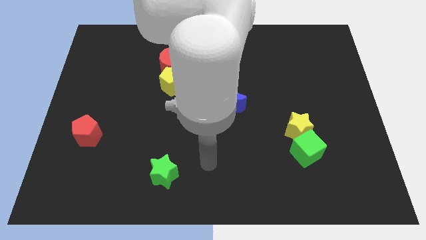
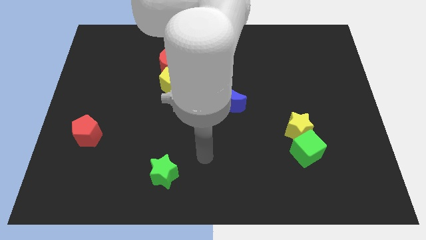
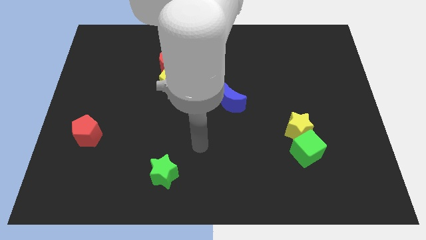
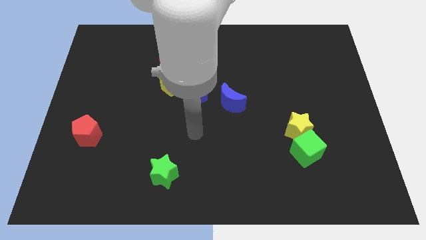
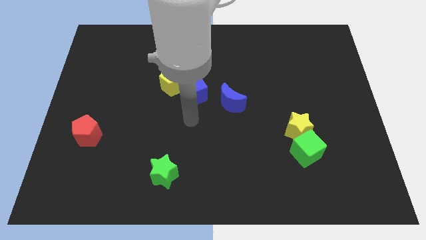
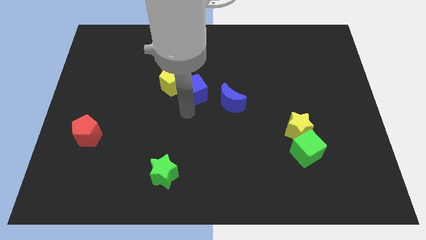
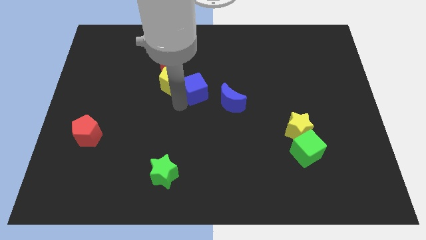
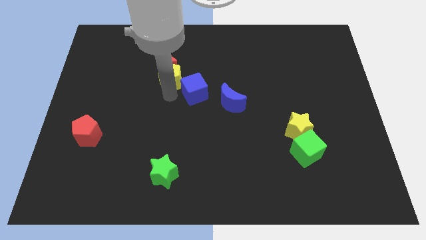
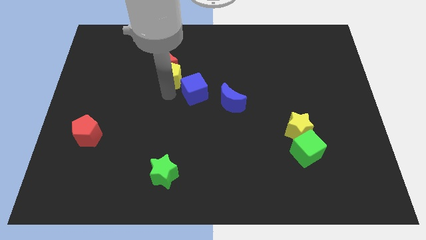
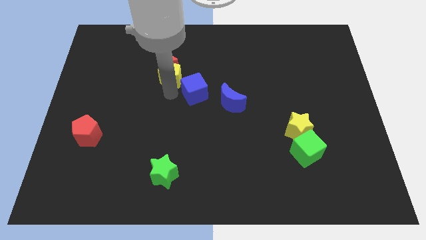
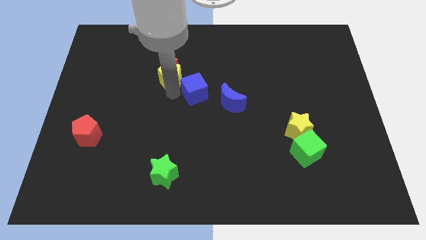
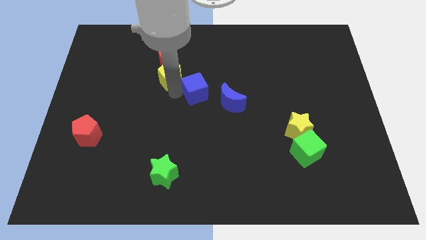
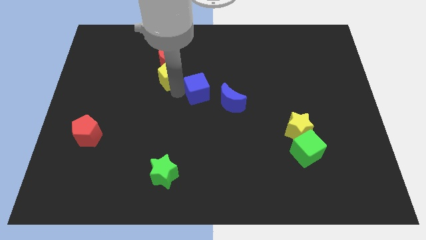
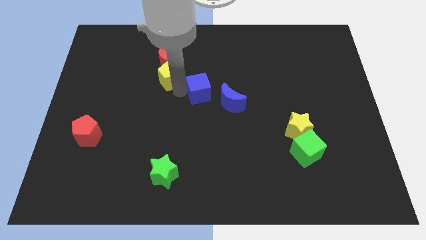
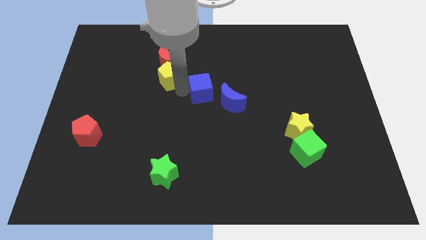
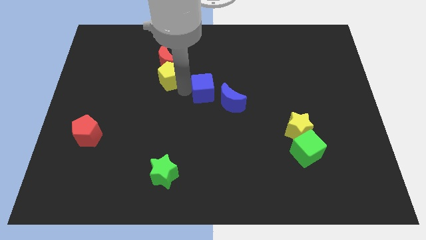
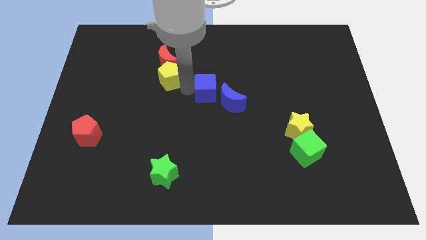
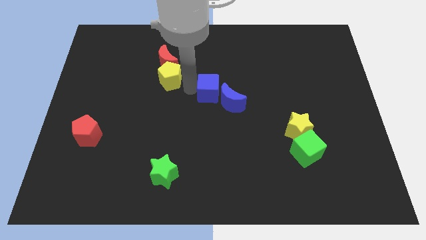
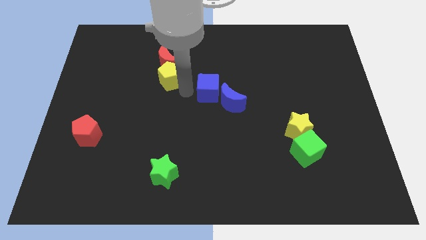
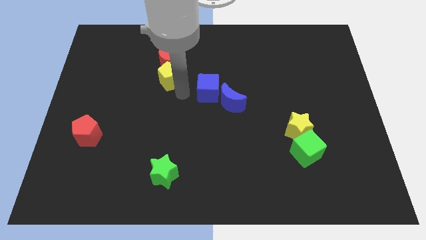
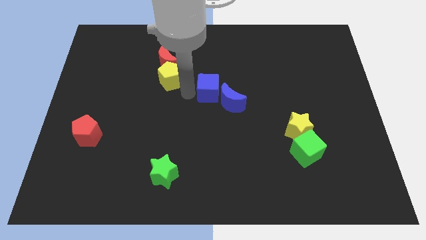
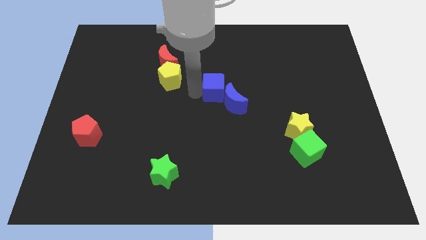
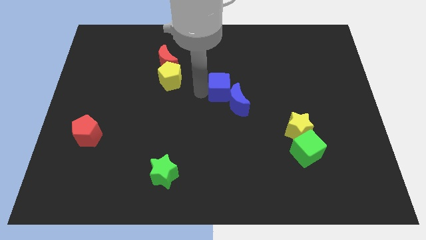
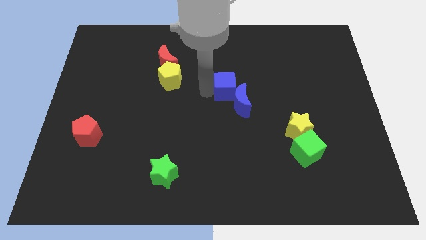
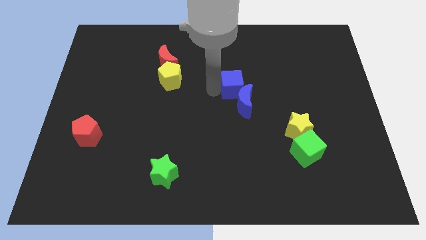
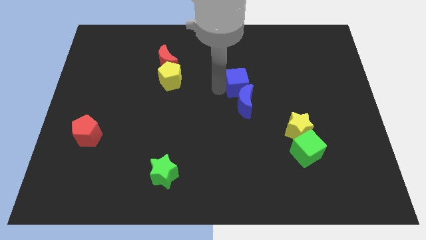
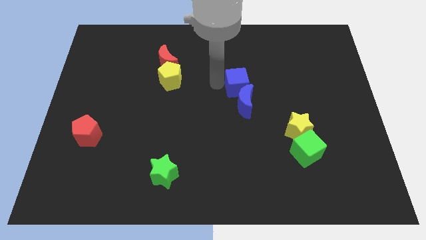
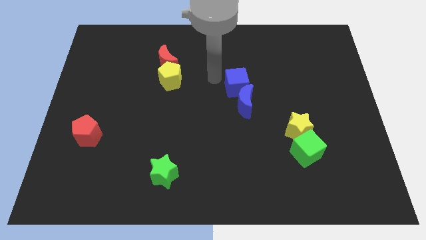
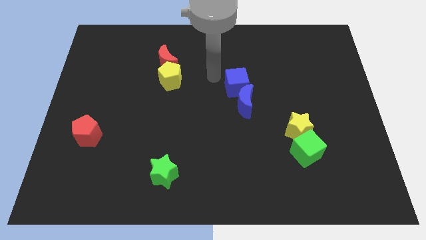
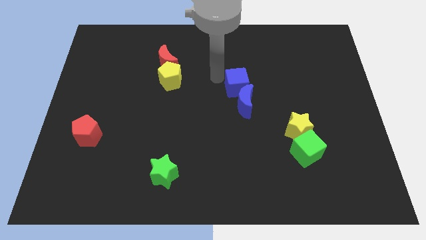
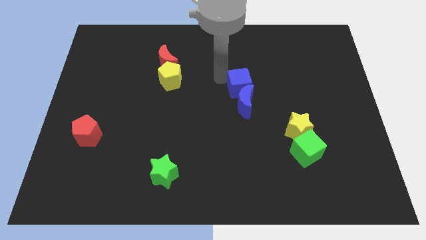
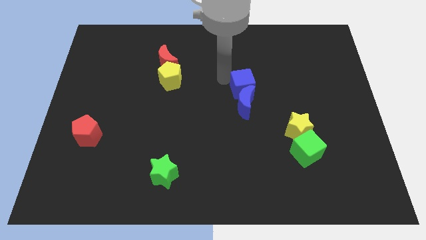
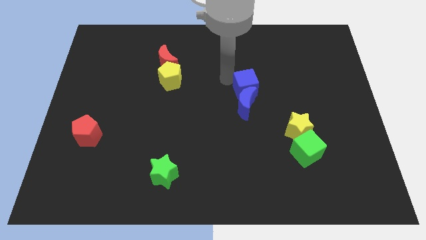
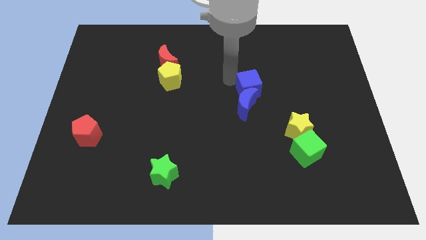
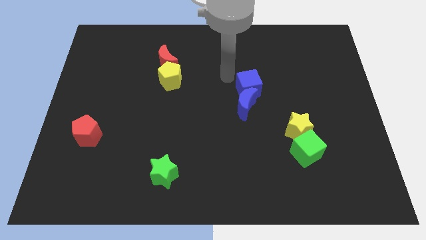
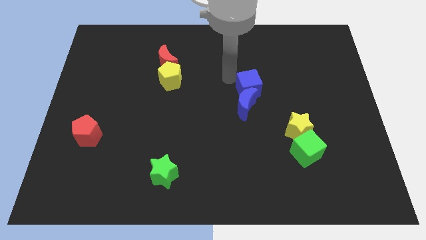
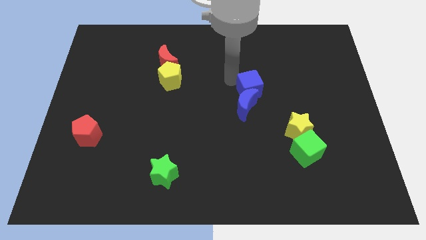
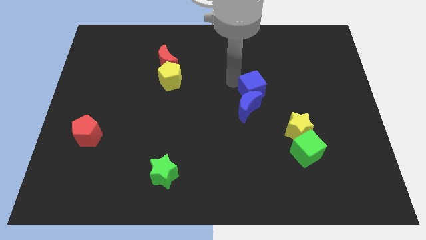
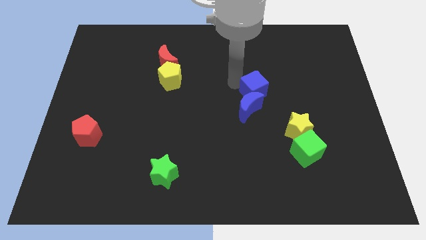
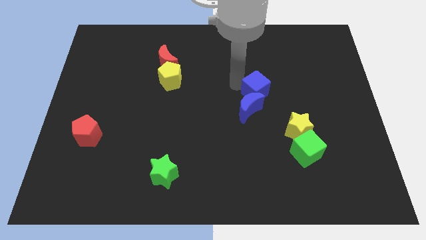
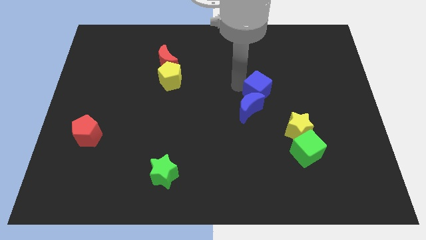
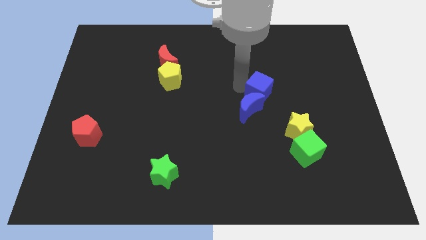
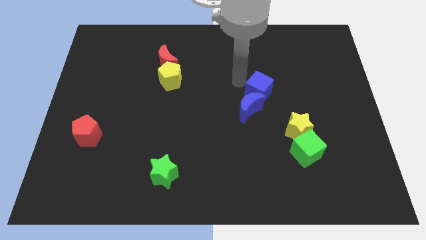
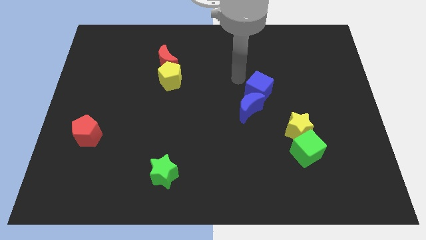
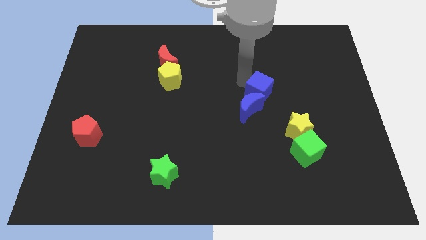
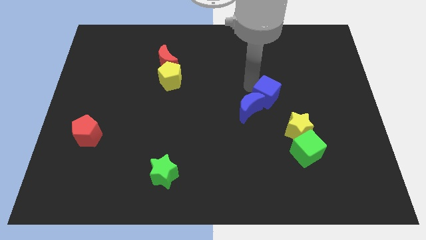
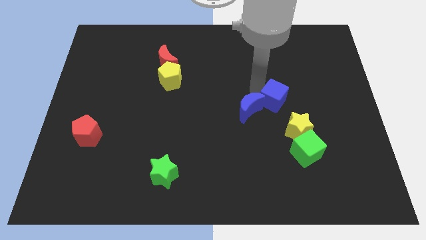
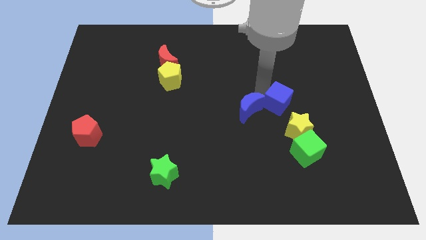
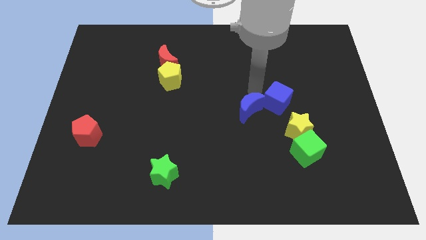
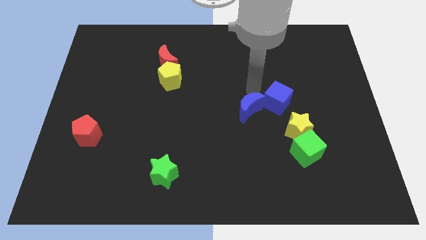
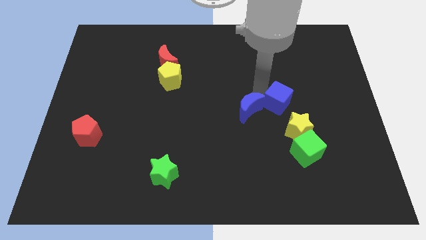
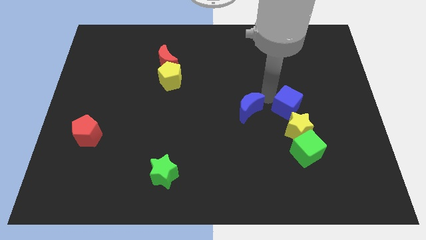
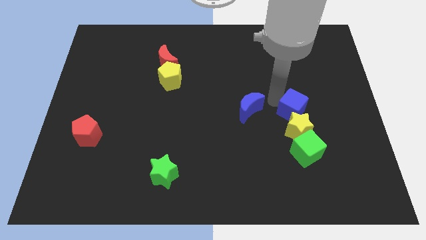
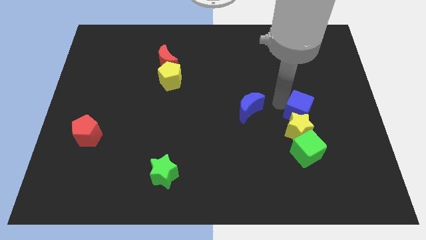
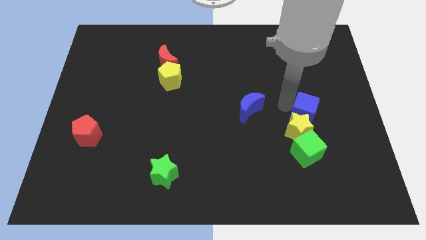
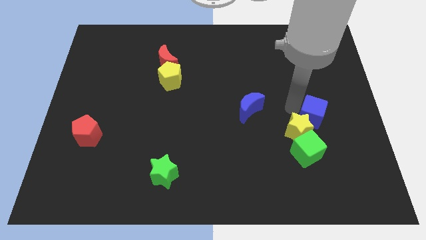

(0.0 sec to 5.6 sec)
put the blue cube right of the yellow star
